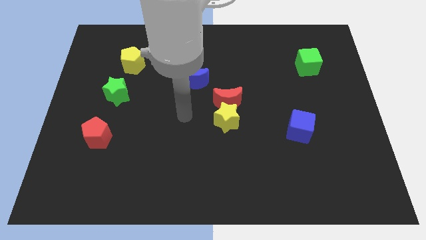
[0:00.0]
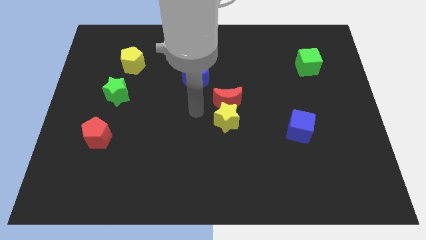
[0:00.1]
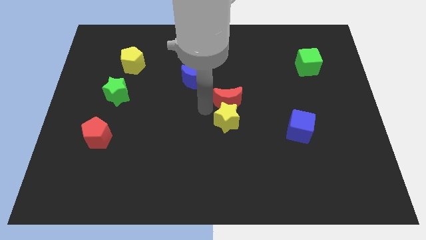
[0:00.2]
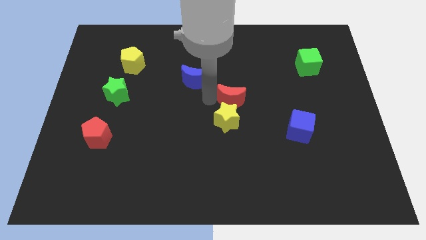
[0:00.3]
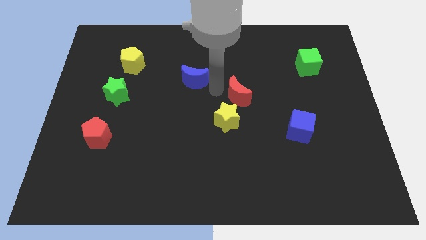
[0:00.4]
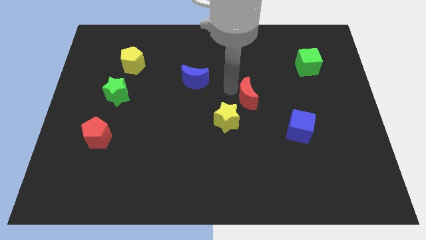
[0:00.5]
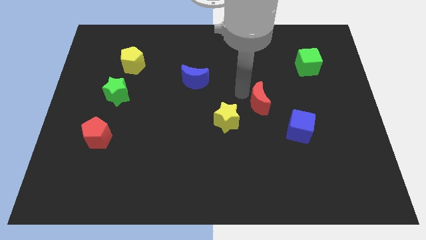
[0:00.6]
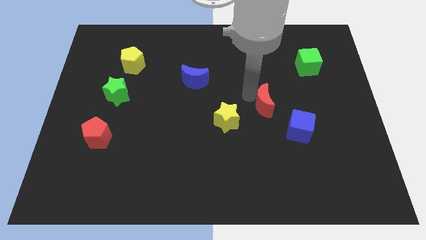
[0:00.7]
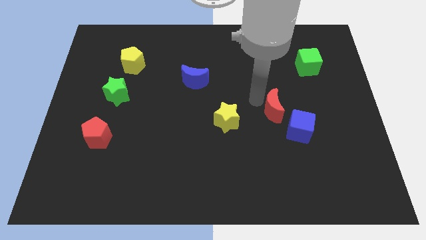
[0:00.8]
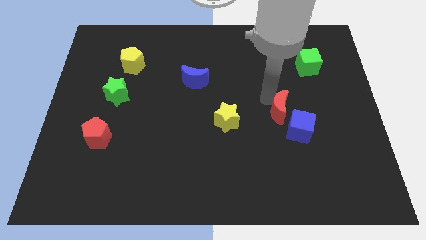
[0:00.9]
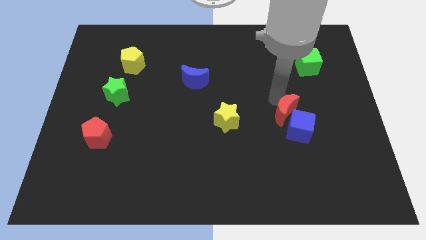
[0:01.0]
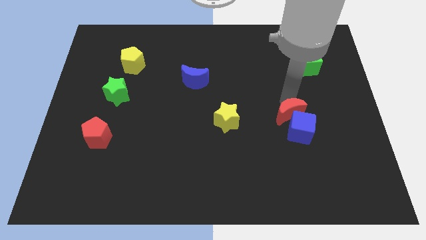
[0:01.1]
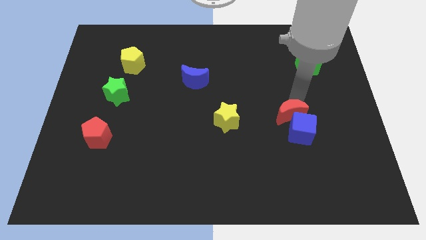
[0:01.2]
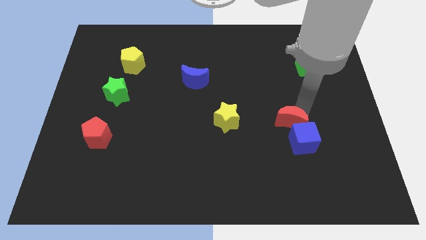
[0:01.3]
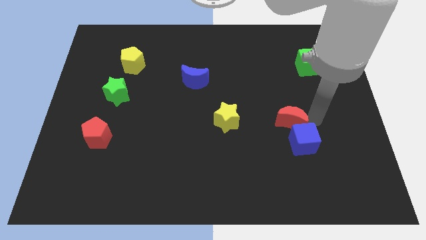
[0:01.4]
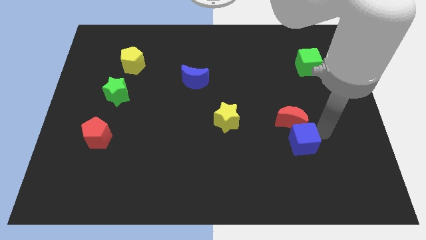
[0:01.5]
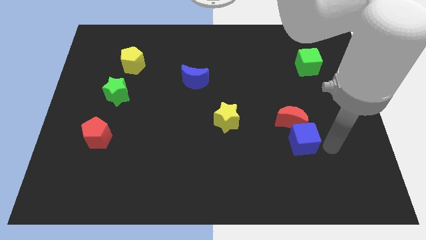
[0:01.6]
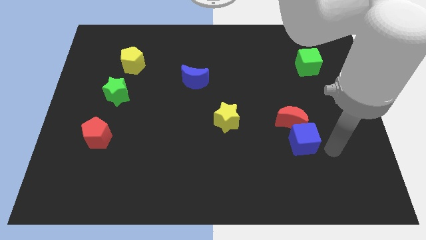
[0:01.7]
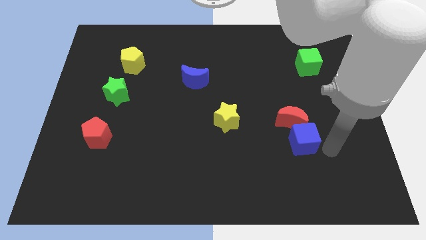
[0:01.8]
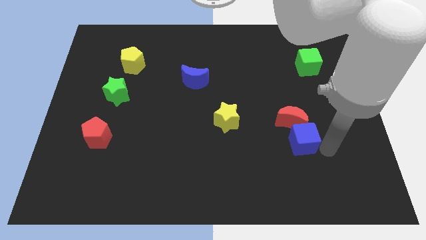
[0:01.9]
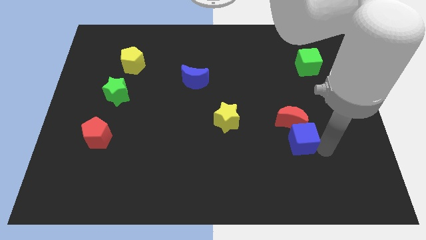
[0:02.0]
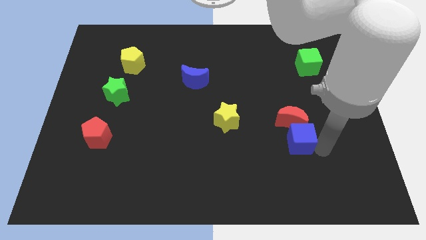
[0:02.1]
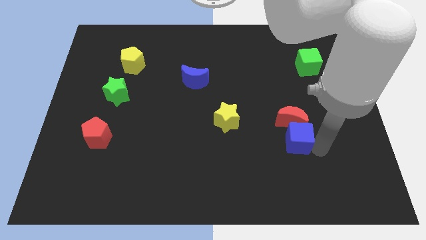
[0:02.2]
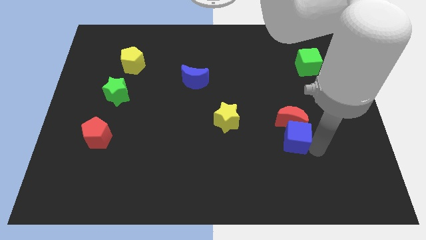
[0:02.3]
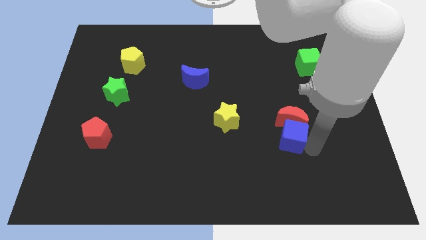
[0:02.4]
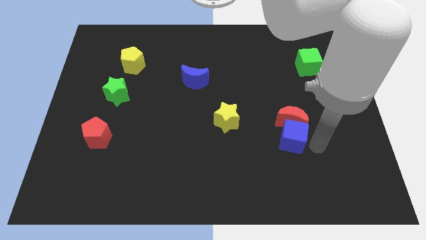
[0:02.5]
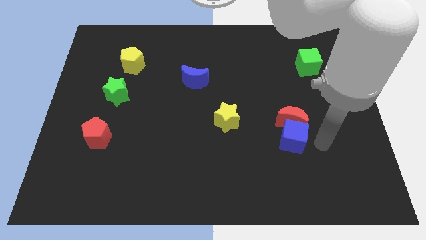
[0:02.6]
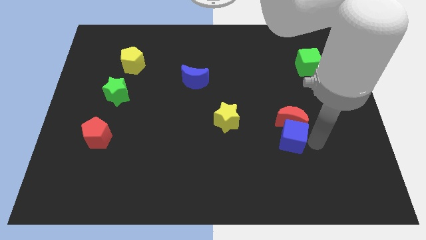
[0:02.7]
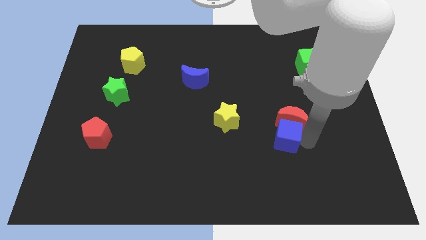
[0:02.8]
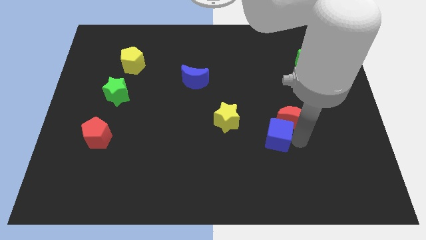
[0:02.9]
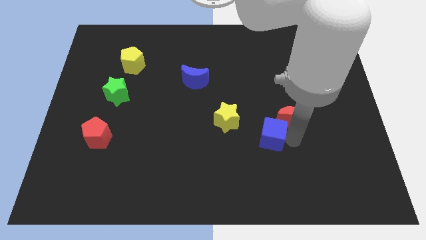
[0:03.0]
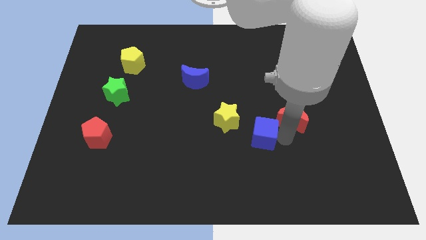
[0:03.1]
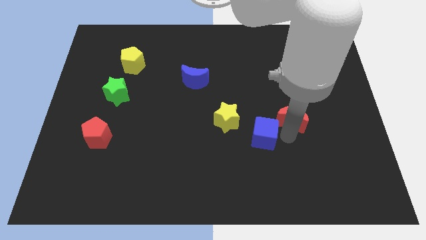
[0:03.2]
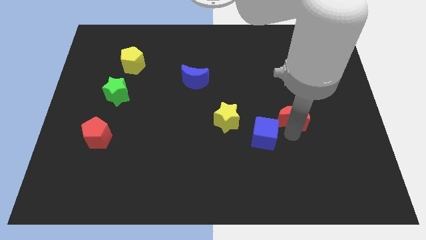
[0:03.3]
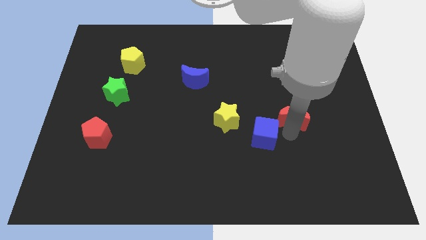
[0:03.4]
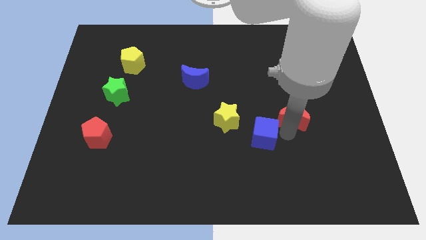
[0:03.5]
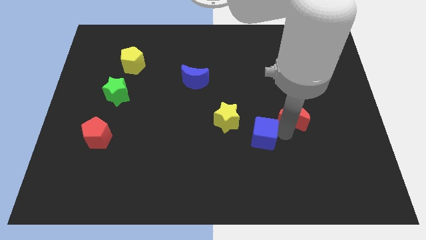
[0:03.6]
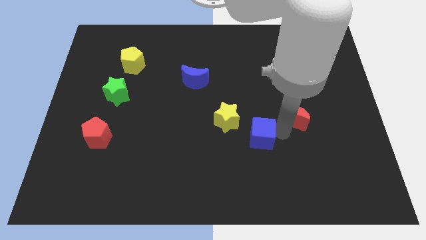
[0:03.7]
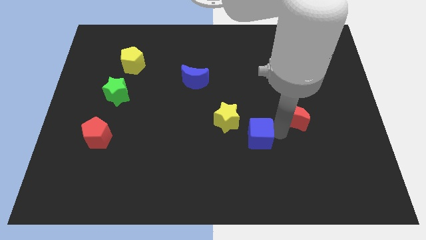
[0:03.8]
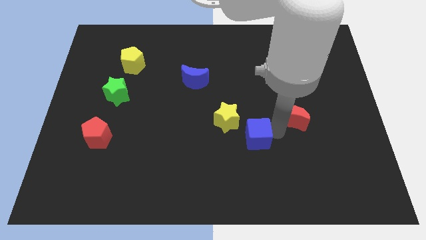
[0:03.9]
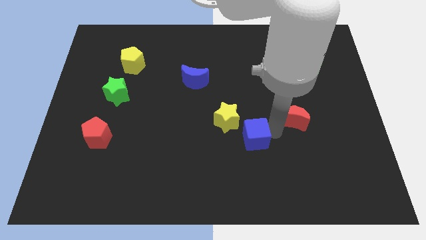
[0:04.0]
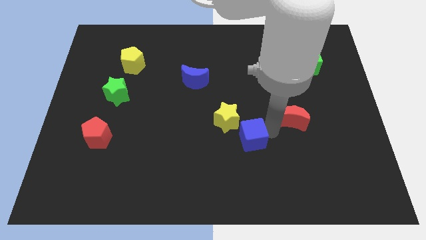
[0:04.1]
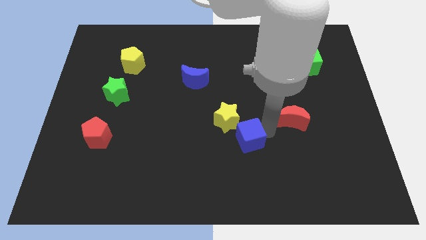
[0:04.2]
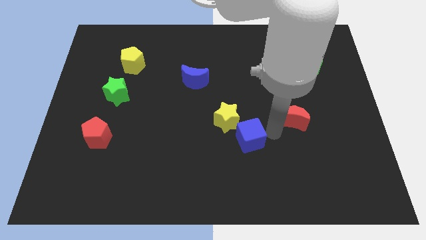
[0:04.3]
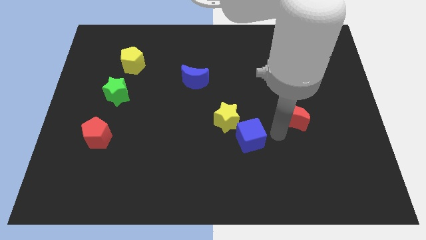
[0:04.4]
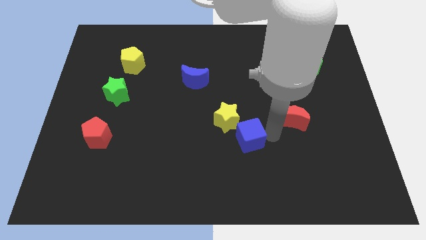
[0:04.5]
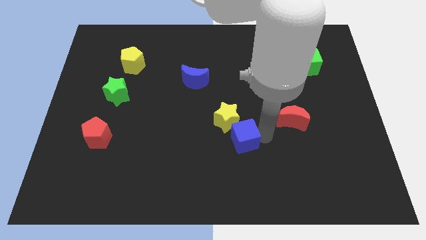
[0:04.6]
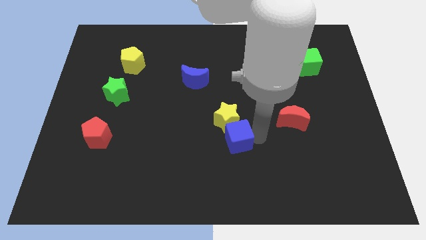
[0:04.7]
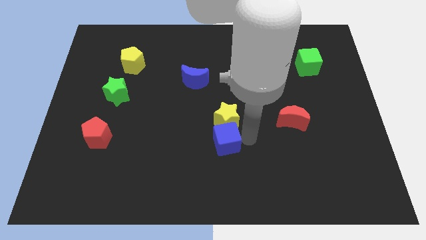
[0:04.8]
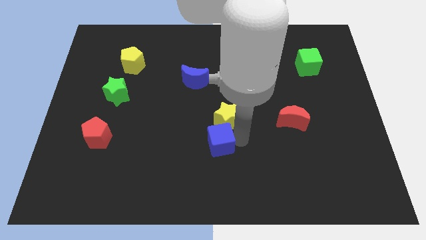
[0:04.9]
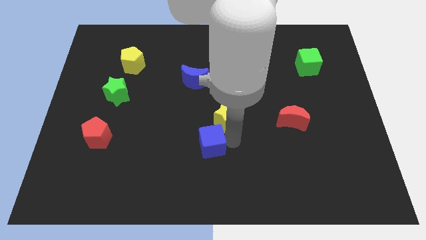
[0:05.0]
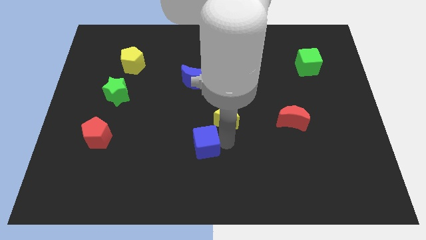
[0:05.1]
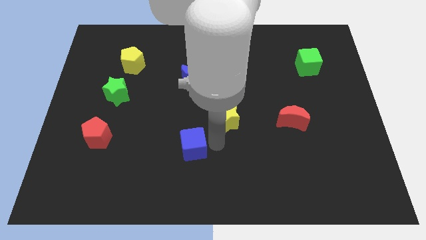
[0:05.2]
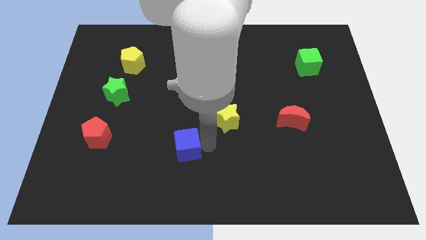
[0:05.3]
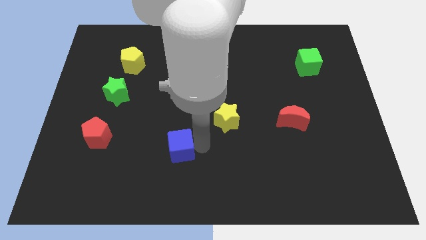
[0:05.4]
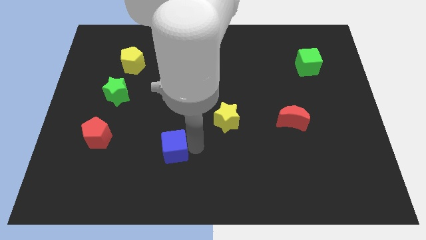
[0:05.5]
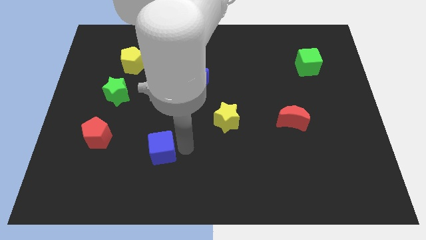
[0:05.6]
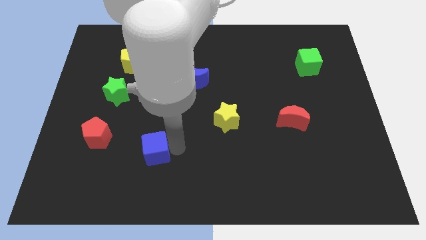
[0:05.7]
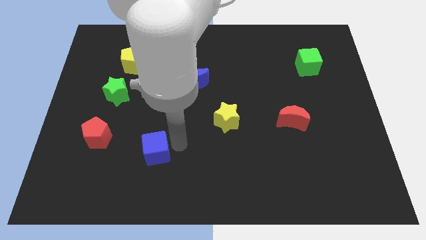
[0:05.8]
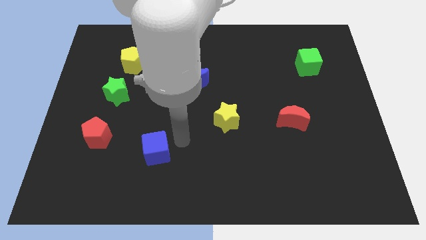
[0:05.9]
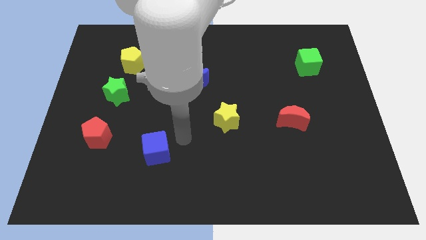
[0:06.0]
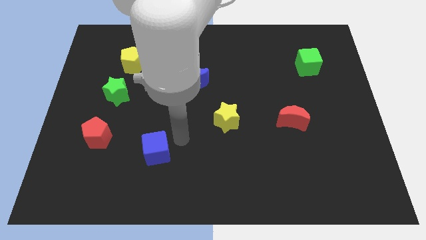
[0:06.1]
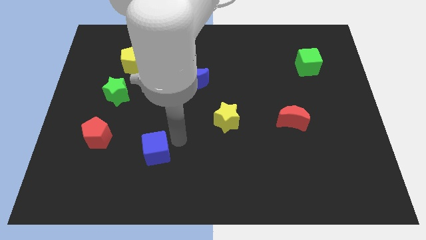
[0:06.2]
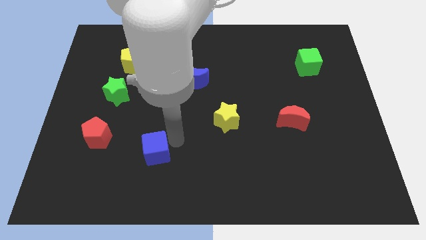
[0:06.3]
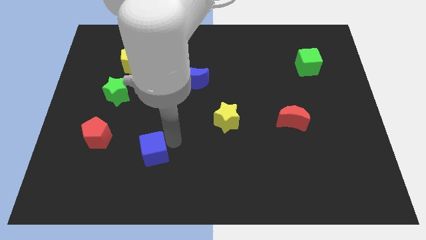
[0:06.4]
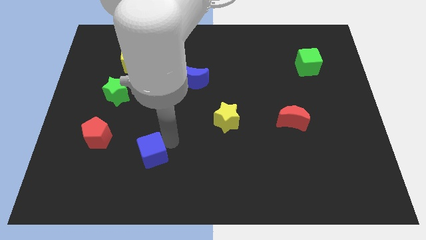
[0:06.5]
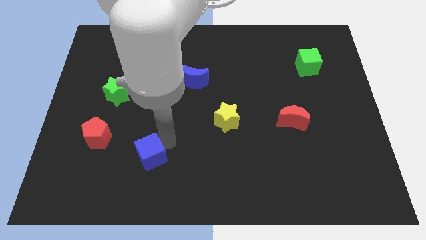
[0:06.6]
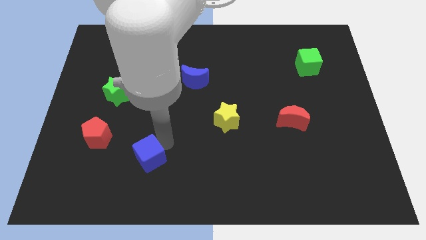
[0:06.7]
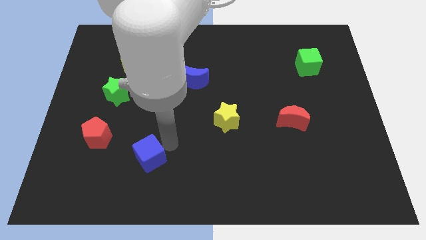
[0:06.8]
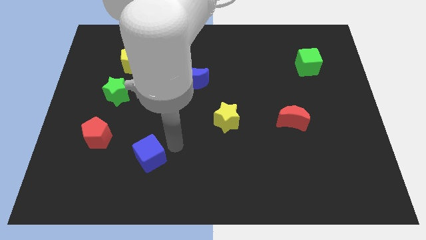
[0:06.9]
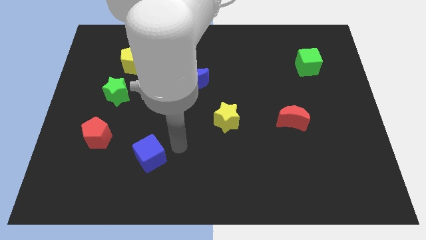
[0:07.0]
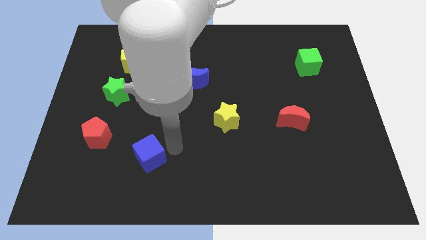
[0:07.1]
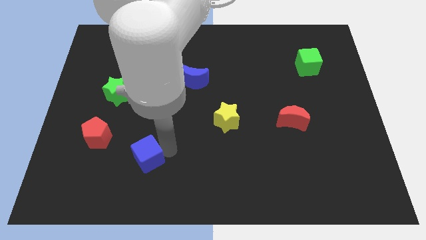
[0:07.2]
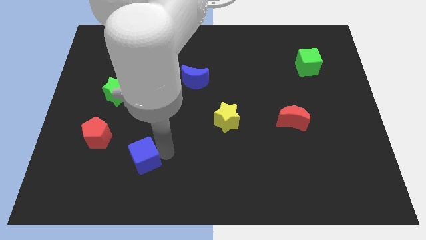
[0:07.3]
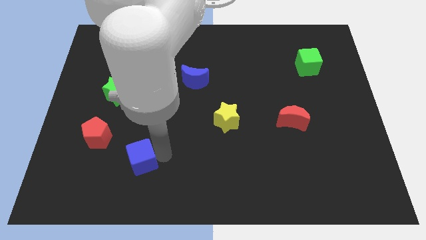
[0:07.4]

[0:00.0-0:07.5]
push the blue cube diagonally down and to the right of the red pentagon
